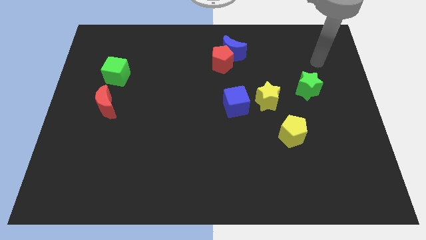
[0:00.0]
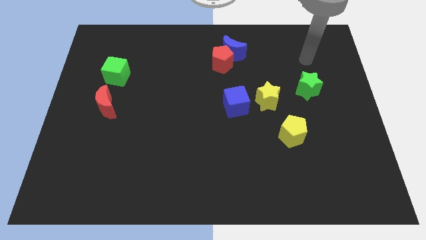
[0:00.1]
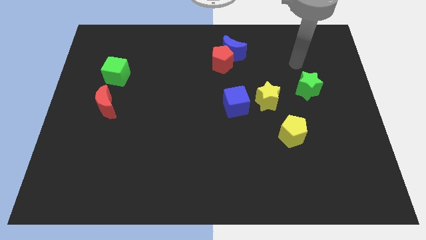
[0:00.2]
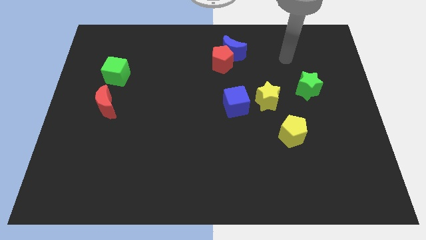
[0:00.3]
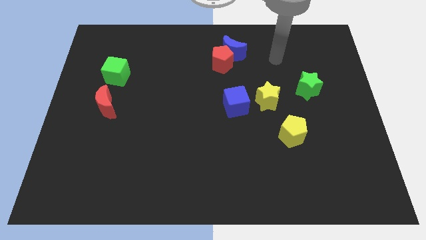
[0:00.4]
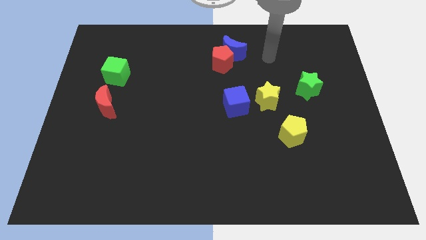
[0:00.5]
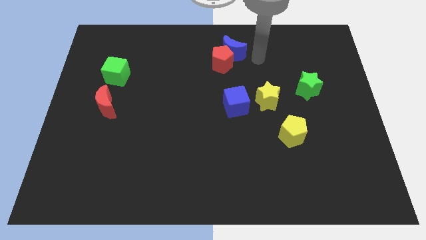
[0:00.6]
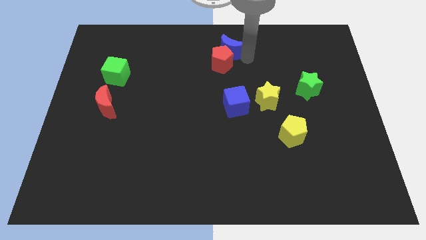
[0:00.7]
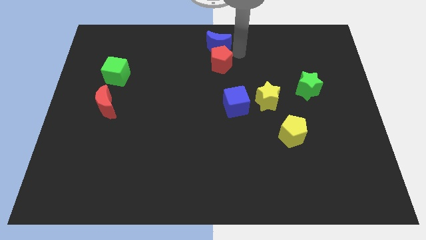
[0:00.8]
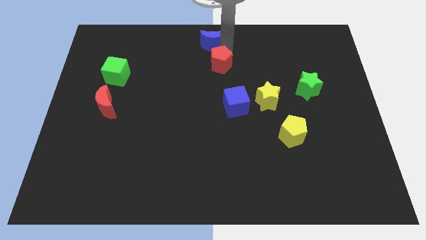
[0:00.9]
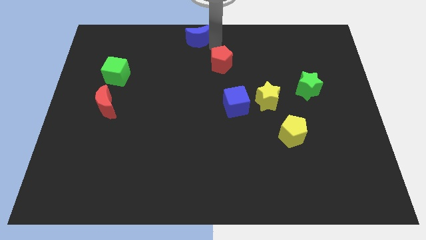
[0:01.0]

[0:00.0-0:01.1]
separate the red pentagon from the blue moon

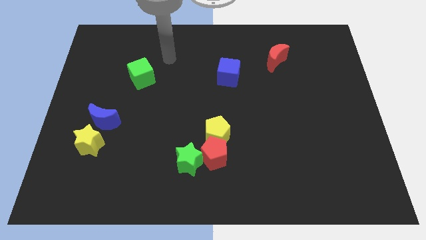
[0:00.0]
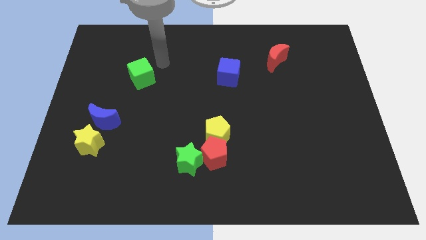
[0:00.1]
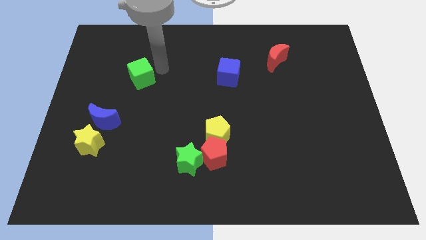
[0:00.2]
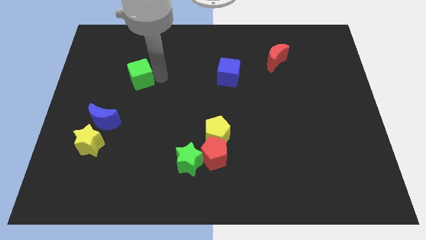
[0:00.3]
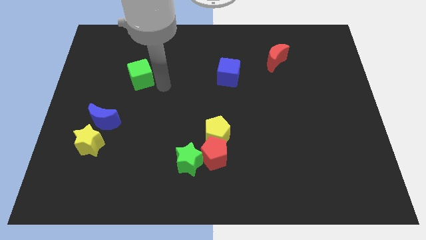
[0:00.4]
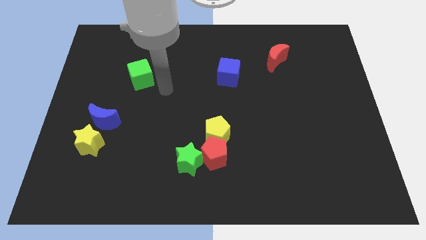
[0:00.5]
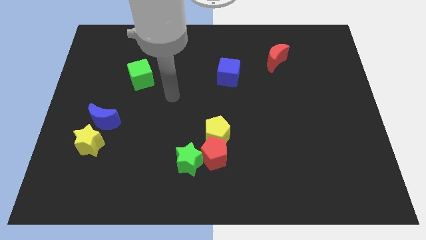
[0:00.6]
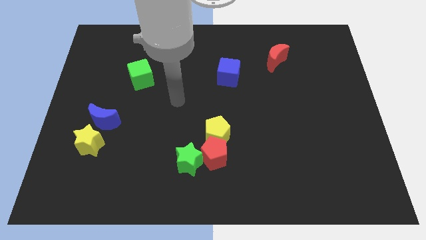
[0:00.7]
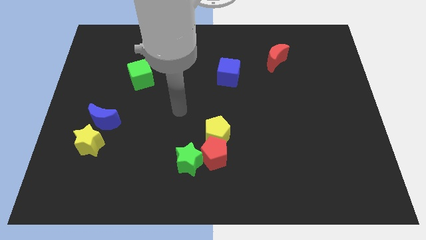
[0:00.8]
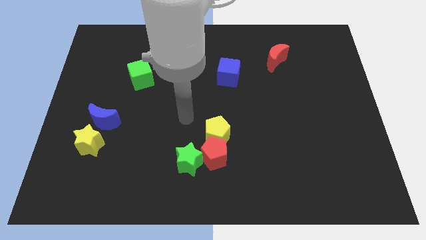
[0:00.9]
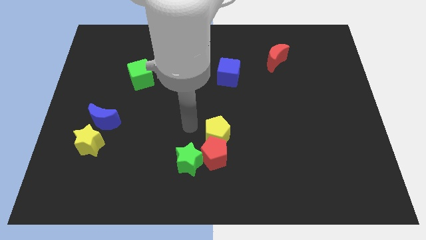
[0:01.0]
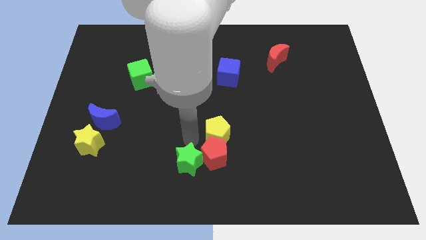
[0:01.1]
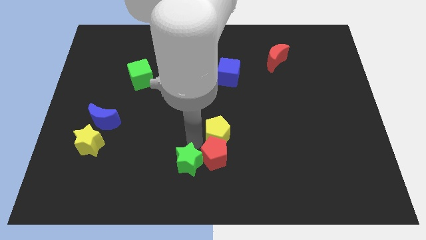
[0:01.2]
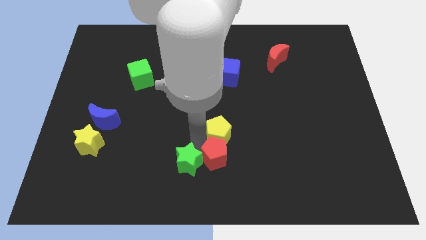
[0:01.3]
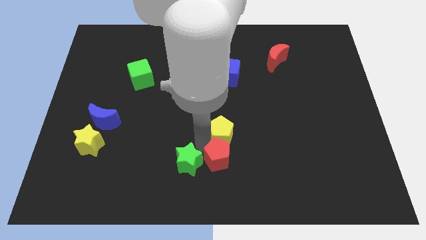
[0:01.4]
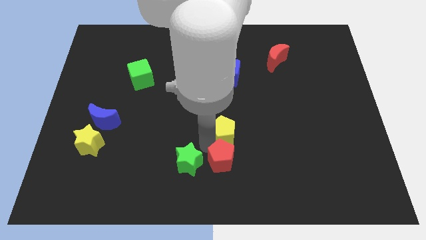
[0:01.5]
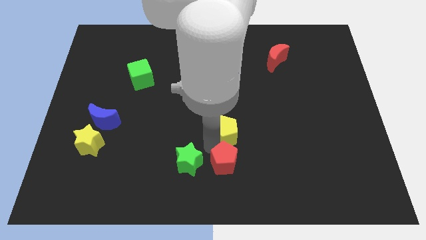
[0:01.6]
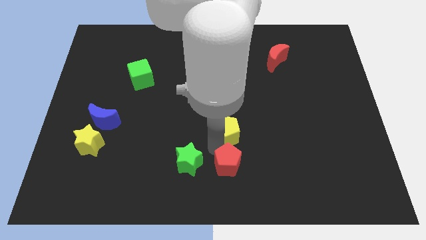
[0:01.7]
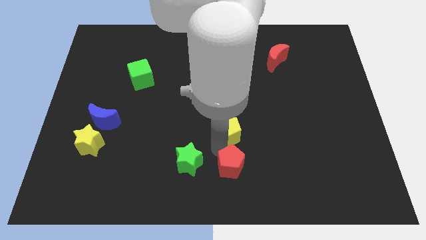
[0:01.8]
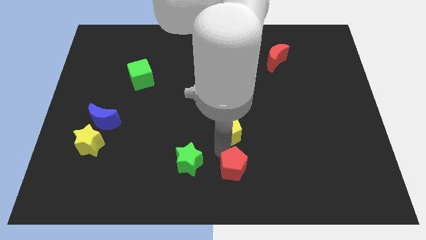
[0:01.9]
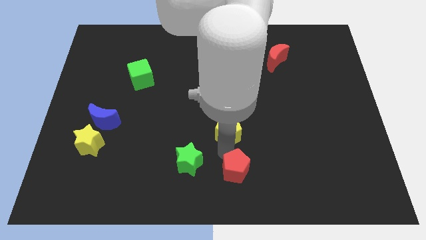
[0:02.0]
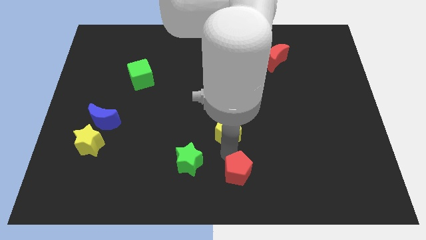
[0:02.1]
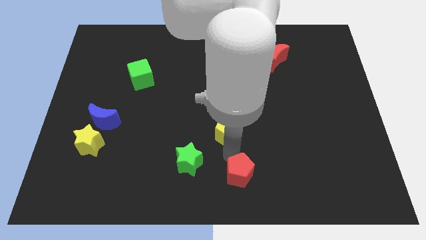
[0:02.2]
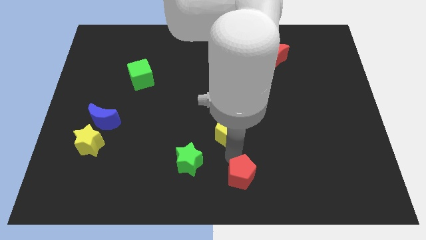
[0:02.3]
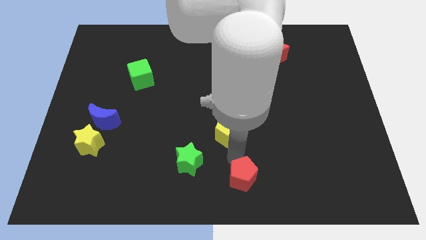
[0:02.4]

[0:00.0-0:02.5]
move the red pentagon away from the yellow pentagon and green star

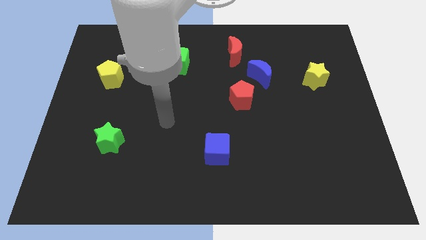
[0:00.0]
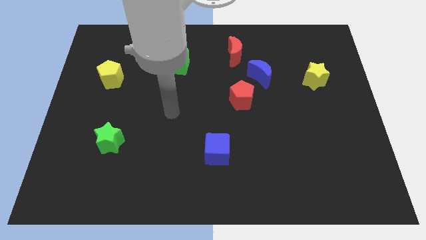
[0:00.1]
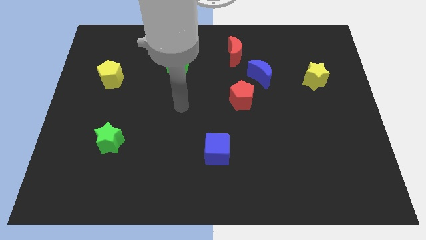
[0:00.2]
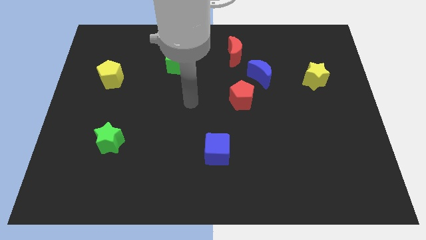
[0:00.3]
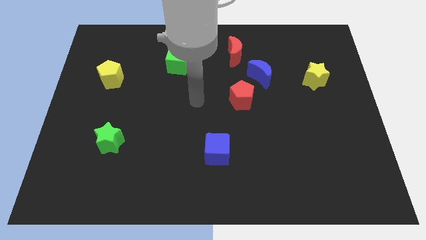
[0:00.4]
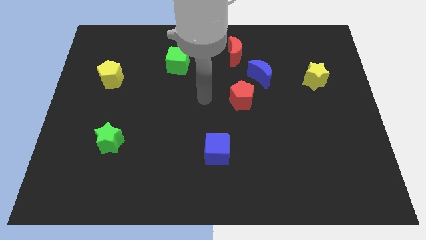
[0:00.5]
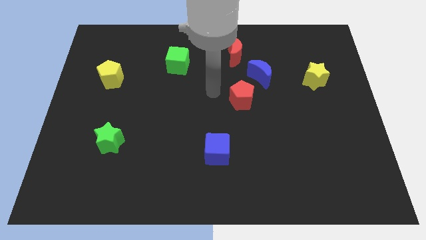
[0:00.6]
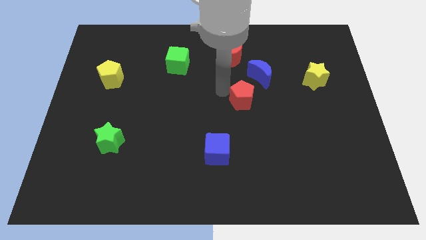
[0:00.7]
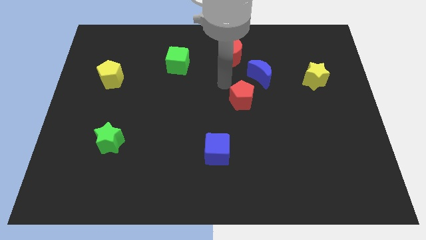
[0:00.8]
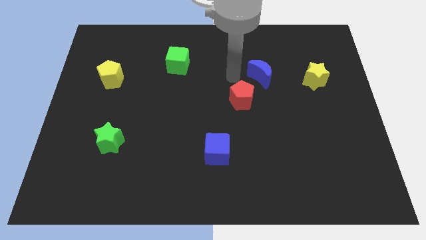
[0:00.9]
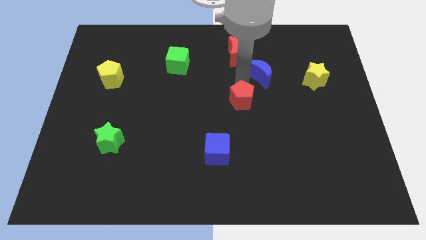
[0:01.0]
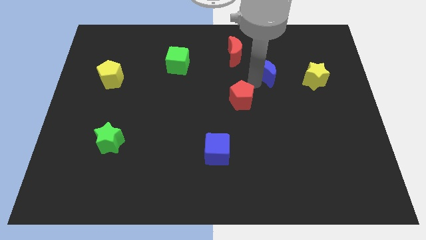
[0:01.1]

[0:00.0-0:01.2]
pull the red pentagon apart from the blue moon

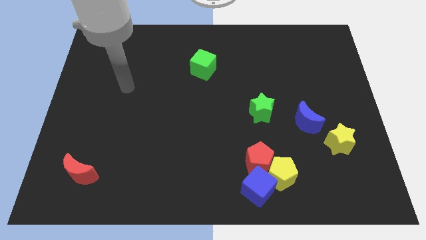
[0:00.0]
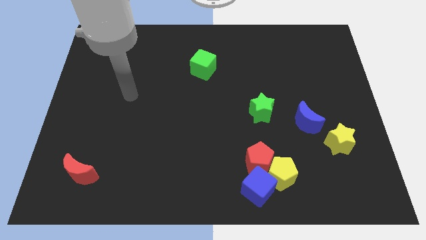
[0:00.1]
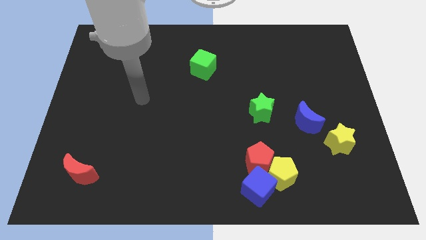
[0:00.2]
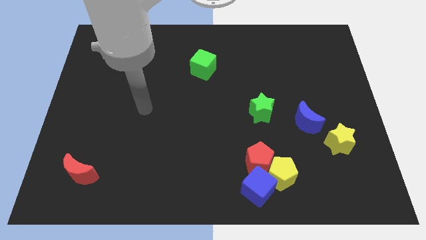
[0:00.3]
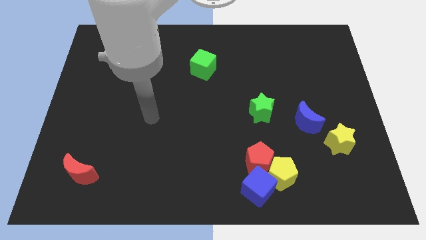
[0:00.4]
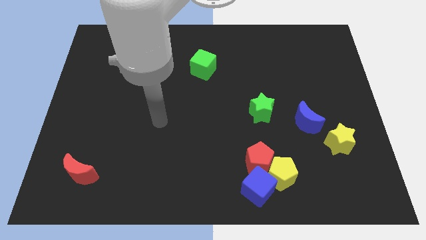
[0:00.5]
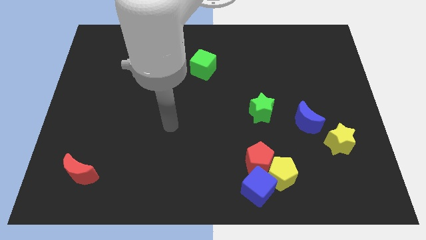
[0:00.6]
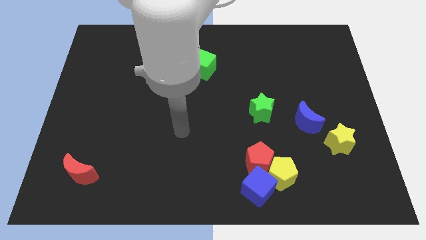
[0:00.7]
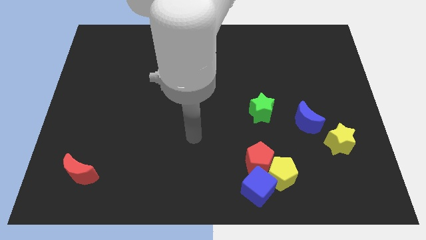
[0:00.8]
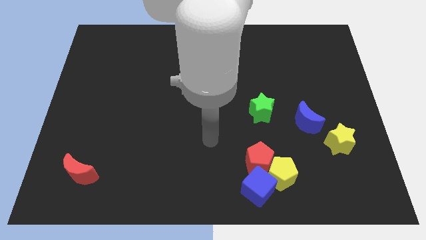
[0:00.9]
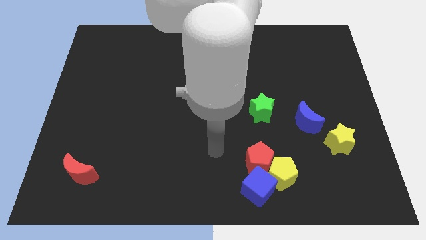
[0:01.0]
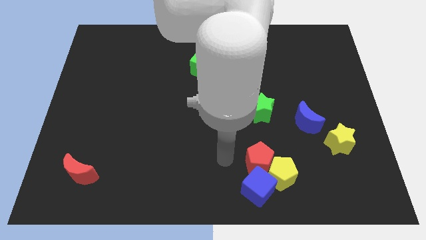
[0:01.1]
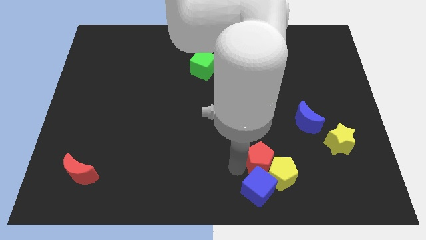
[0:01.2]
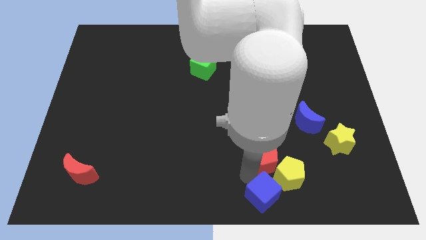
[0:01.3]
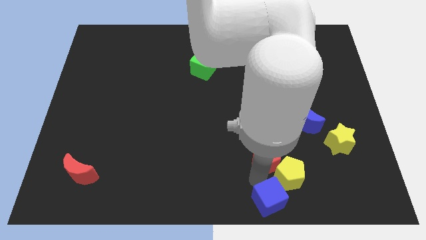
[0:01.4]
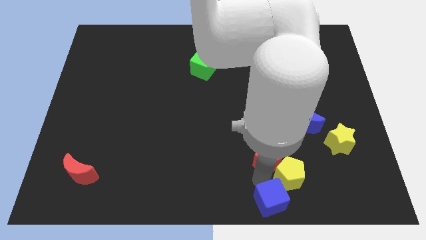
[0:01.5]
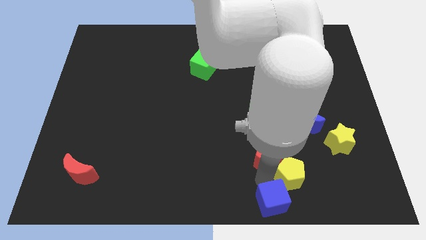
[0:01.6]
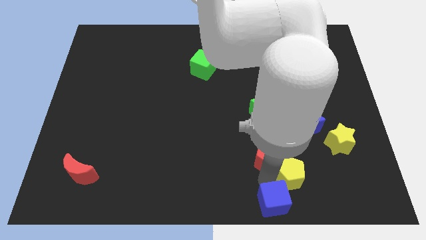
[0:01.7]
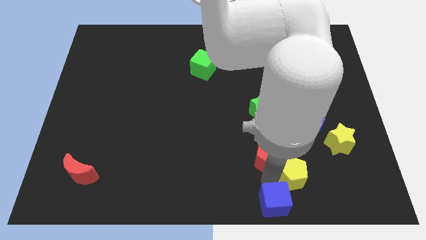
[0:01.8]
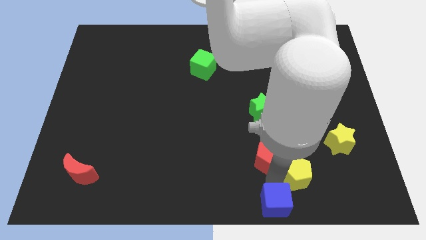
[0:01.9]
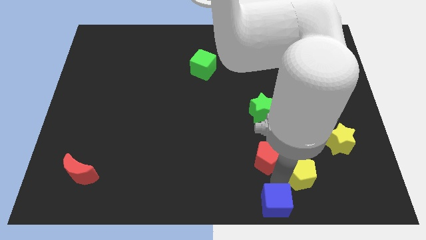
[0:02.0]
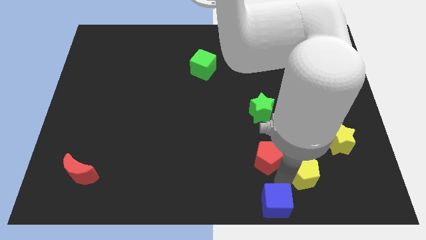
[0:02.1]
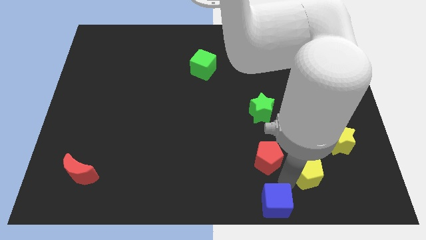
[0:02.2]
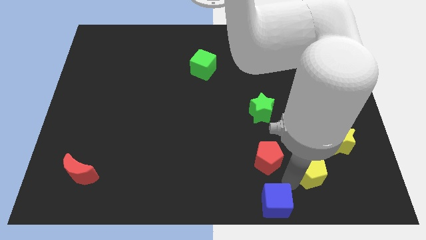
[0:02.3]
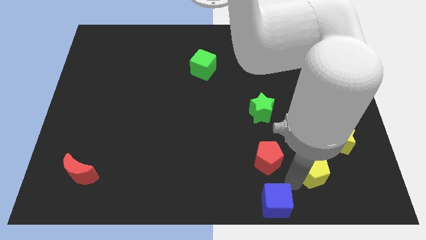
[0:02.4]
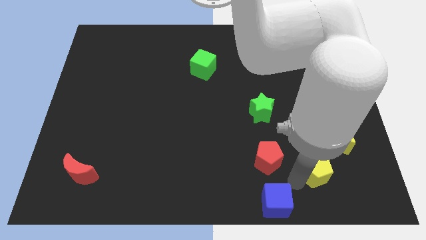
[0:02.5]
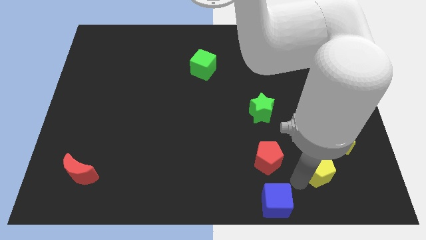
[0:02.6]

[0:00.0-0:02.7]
pull the yellow pentagon apart from the red pentagon and blue cube

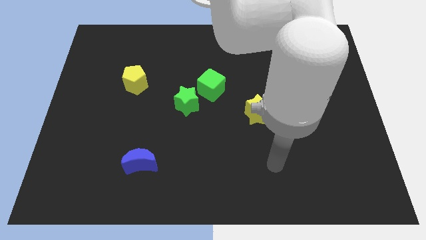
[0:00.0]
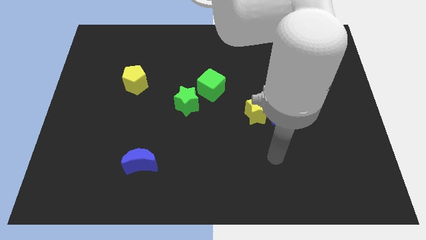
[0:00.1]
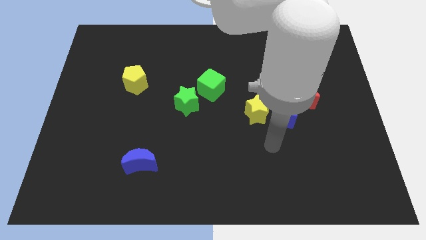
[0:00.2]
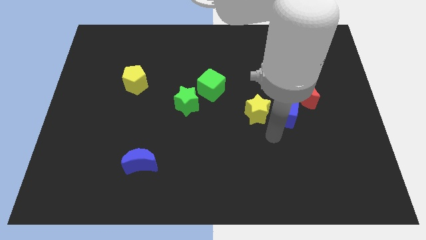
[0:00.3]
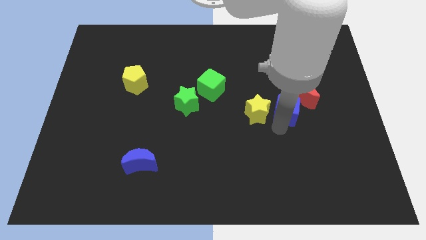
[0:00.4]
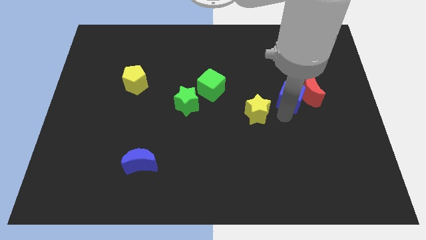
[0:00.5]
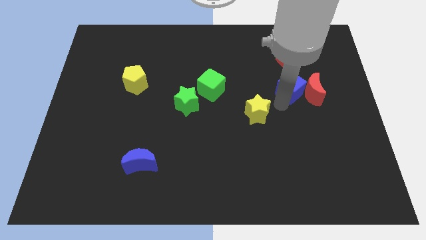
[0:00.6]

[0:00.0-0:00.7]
move the yellow star away from the blue cube

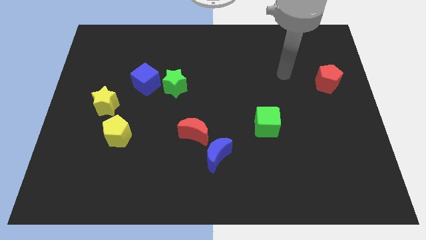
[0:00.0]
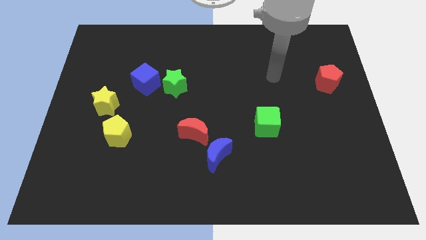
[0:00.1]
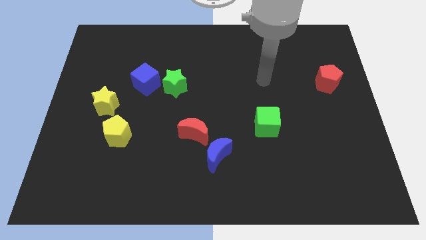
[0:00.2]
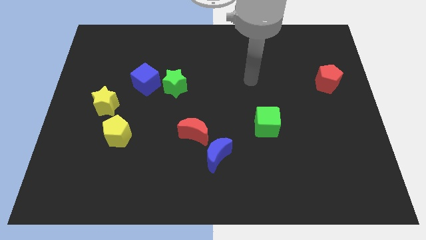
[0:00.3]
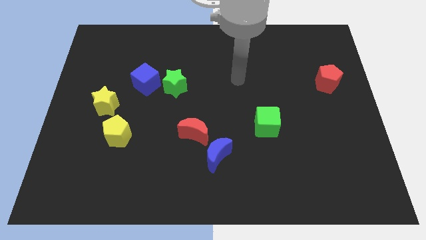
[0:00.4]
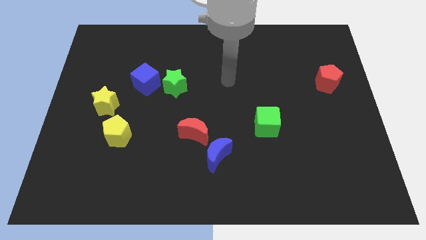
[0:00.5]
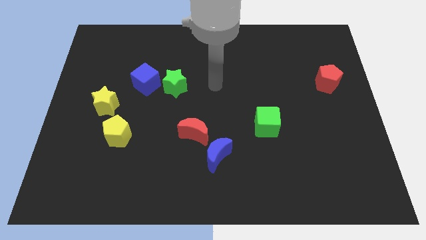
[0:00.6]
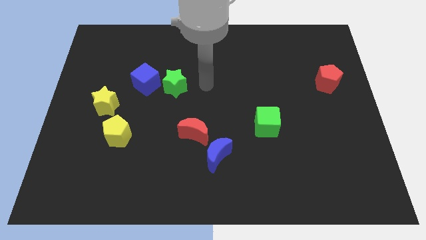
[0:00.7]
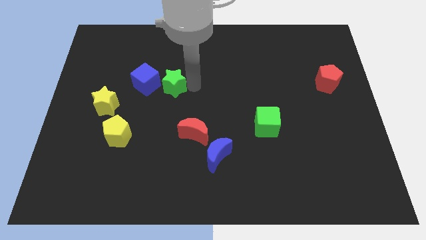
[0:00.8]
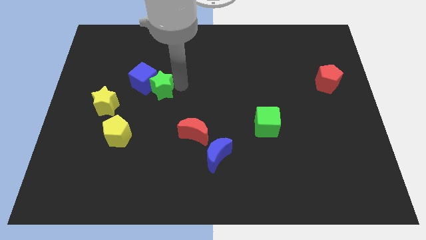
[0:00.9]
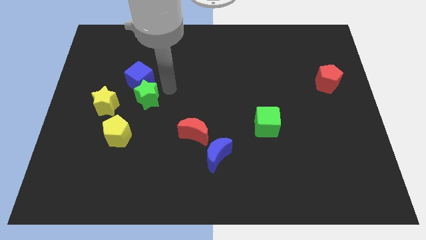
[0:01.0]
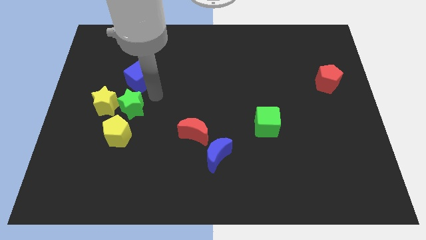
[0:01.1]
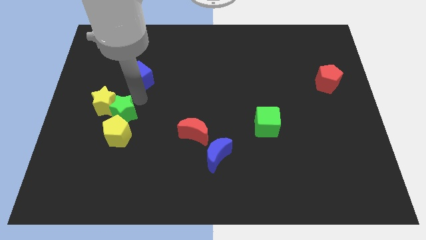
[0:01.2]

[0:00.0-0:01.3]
pull the blue cube apart from the green star
